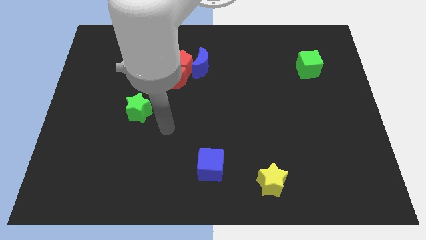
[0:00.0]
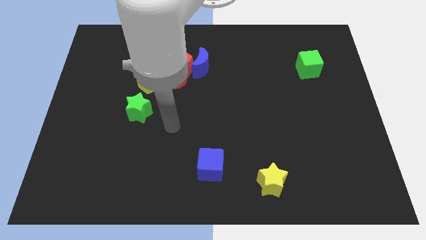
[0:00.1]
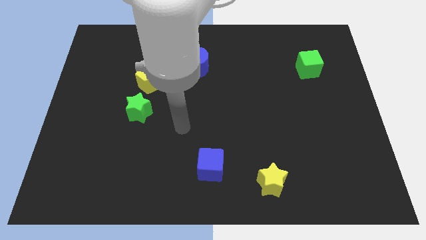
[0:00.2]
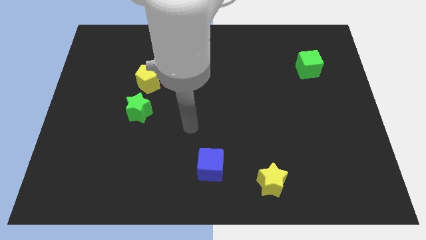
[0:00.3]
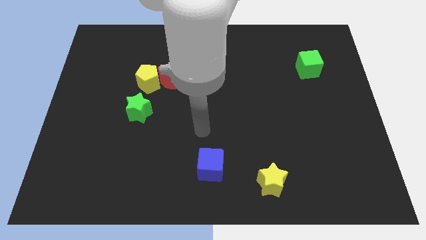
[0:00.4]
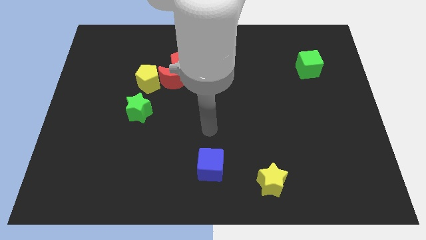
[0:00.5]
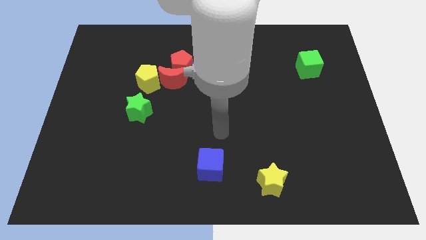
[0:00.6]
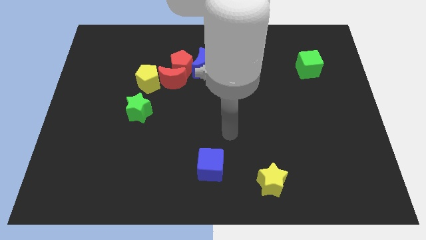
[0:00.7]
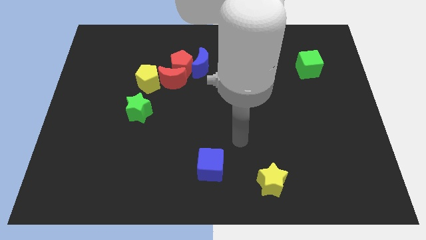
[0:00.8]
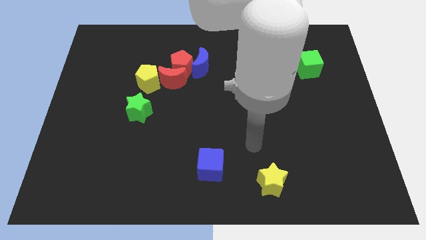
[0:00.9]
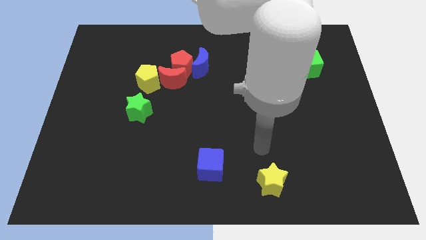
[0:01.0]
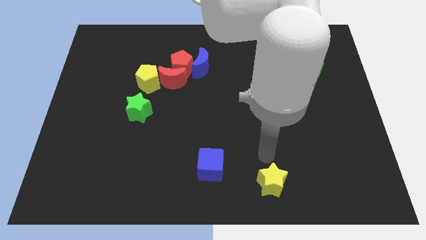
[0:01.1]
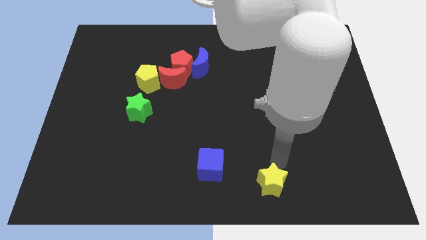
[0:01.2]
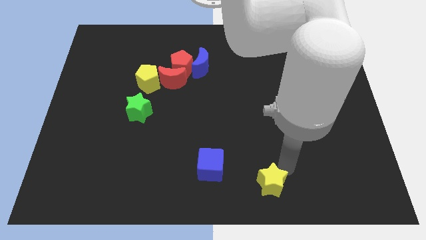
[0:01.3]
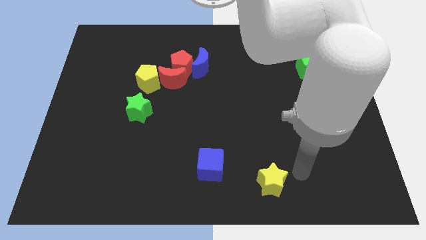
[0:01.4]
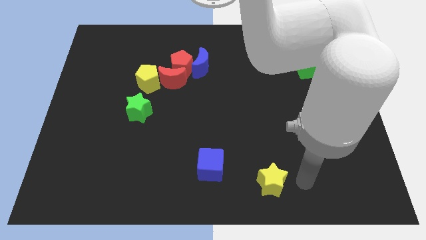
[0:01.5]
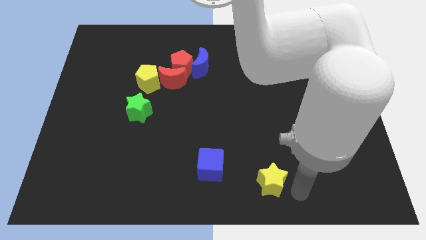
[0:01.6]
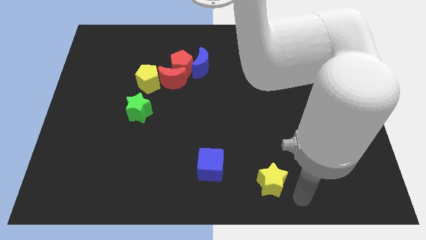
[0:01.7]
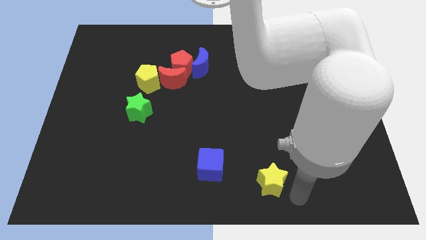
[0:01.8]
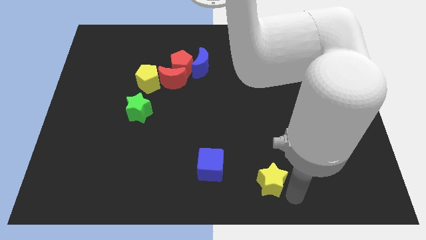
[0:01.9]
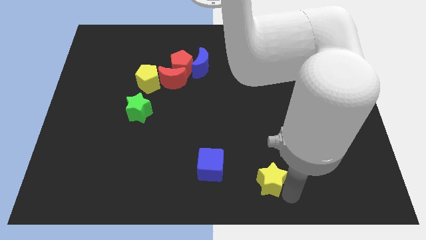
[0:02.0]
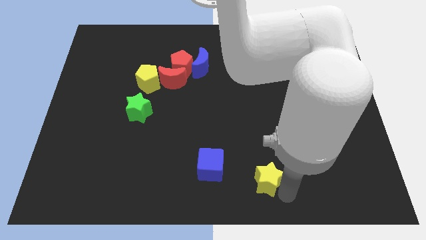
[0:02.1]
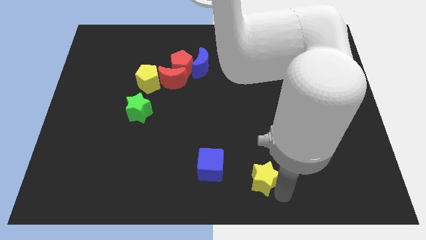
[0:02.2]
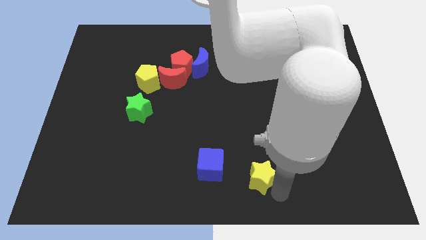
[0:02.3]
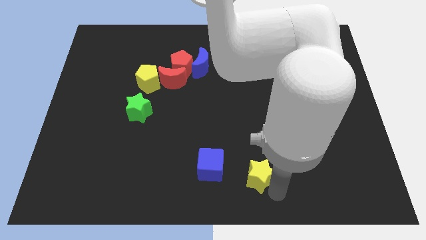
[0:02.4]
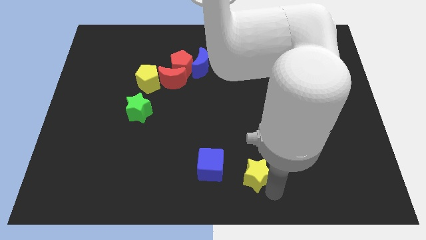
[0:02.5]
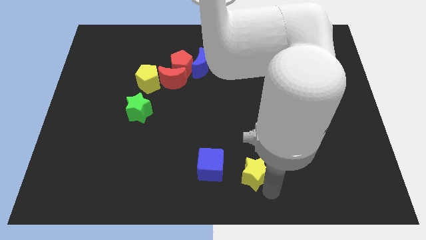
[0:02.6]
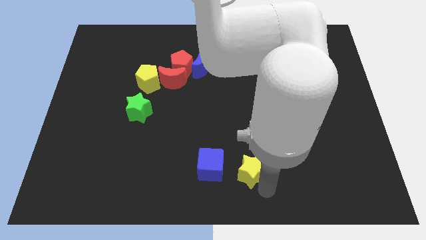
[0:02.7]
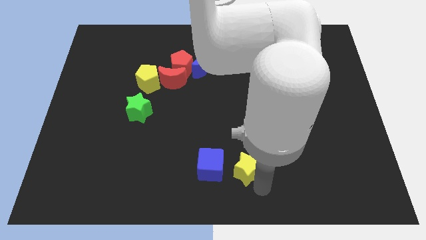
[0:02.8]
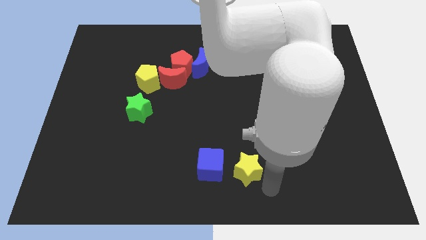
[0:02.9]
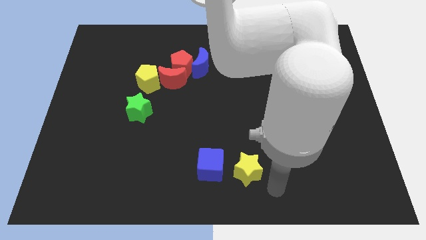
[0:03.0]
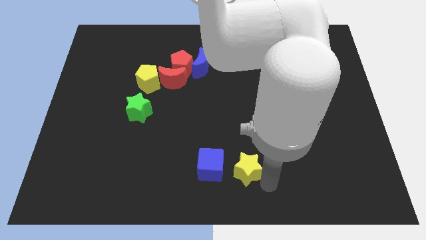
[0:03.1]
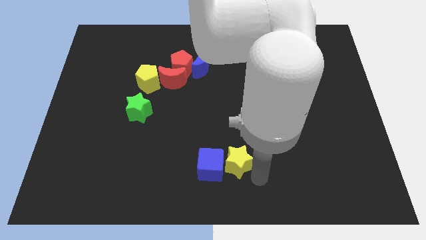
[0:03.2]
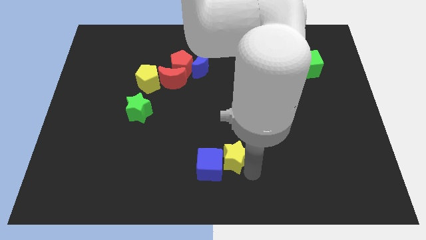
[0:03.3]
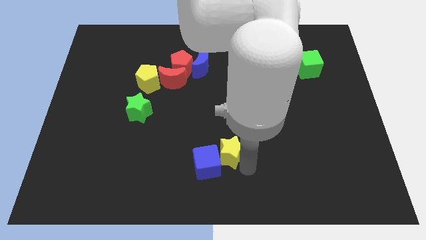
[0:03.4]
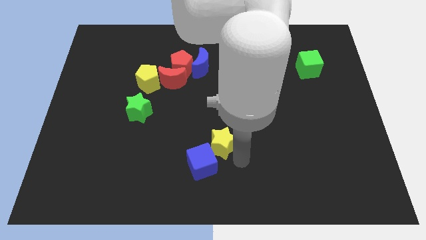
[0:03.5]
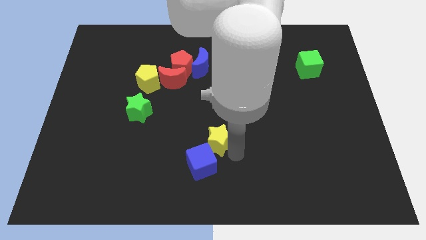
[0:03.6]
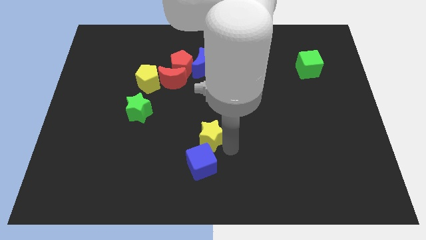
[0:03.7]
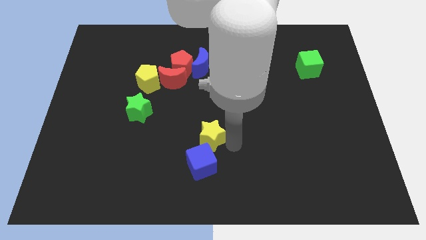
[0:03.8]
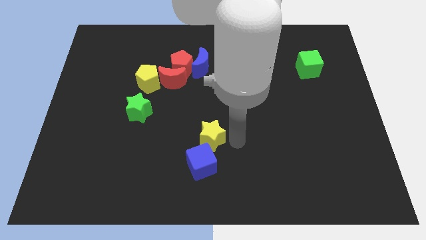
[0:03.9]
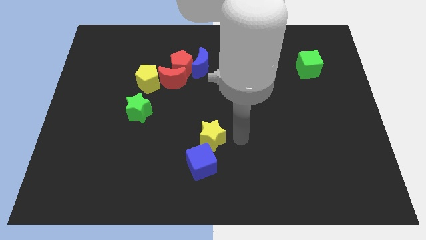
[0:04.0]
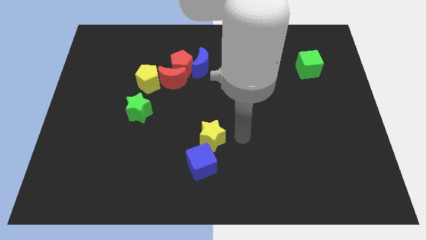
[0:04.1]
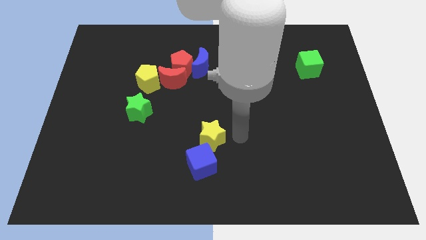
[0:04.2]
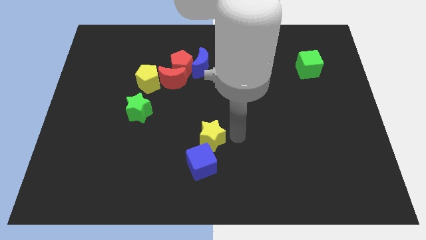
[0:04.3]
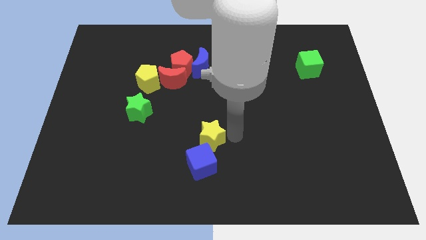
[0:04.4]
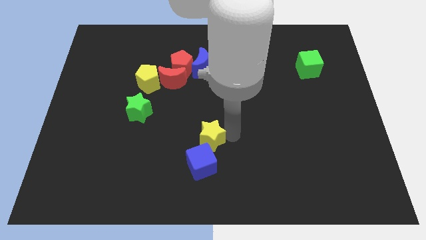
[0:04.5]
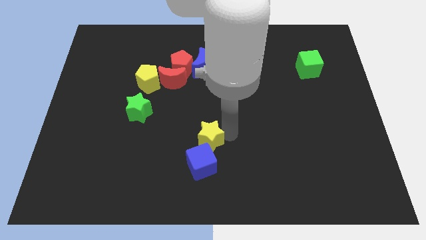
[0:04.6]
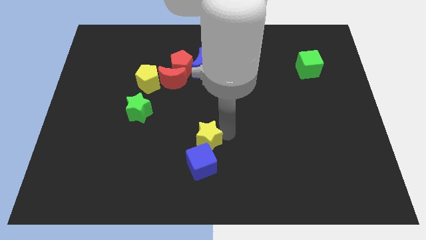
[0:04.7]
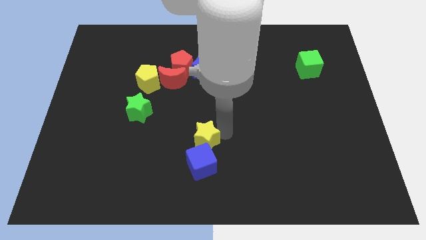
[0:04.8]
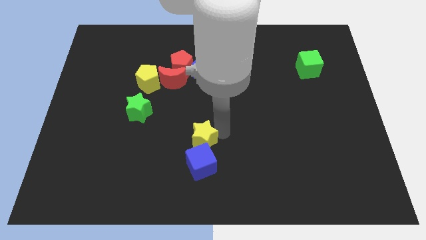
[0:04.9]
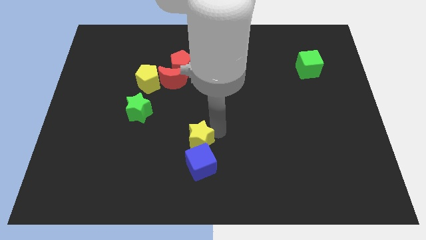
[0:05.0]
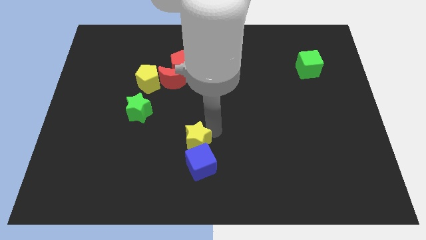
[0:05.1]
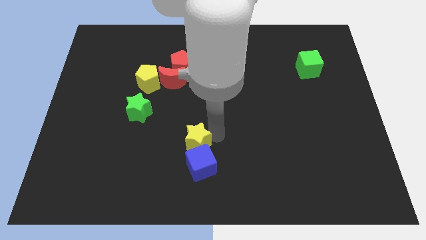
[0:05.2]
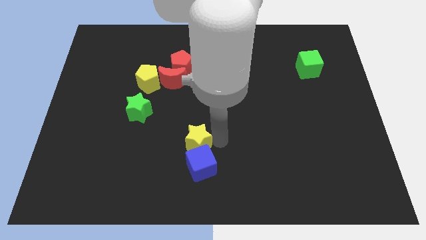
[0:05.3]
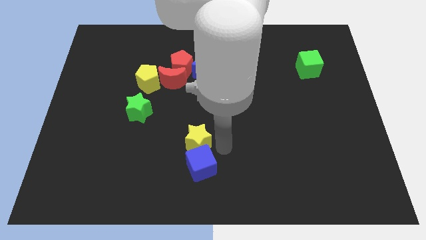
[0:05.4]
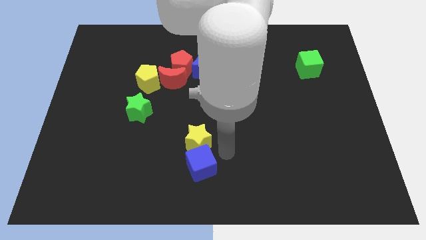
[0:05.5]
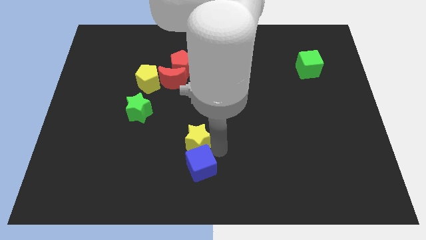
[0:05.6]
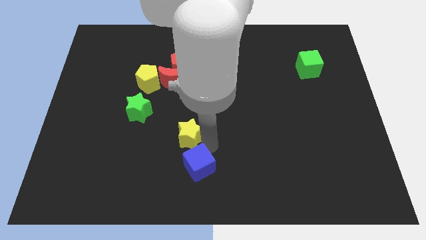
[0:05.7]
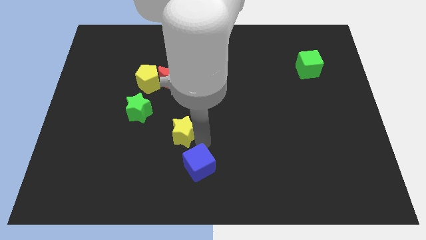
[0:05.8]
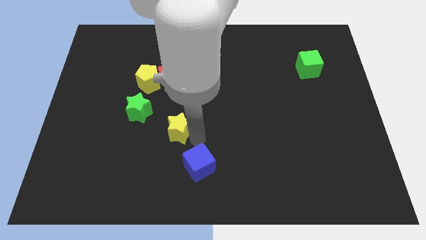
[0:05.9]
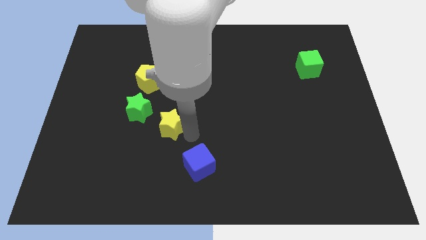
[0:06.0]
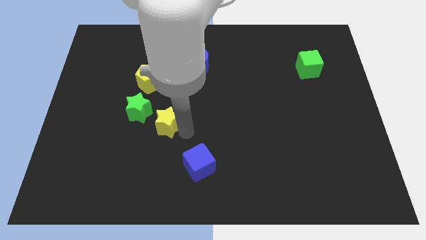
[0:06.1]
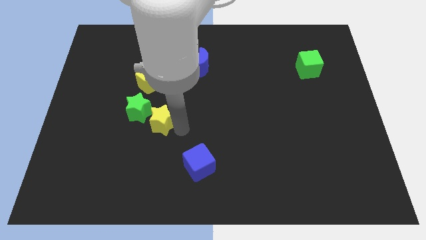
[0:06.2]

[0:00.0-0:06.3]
slide the yellow star close to the green star
